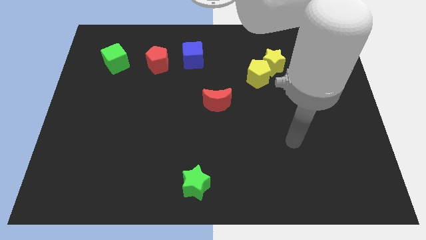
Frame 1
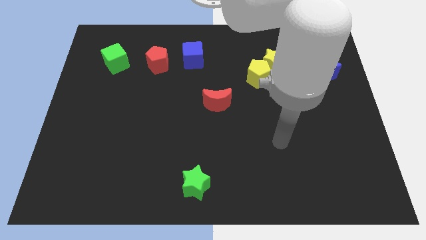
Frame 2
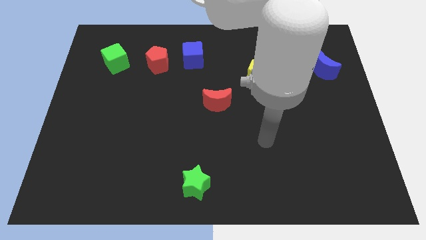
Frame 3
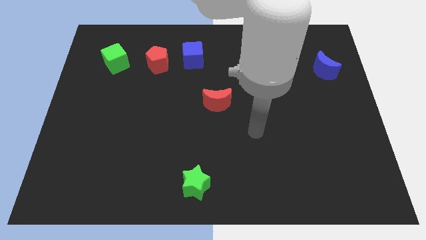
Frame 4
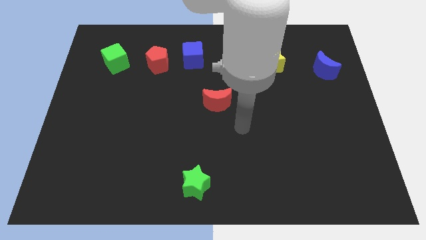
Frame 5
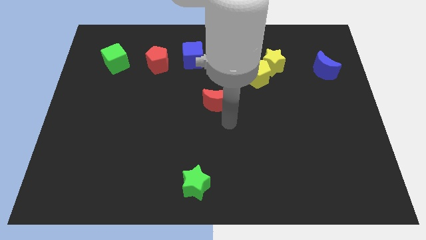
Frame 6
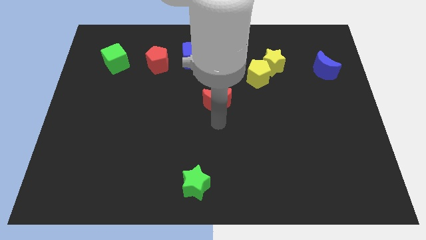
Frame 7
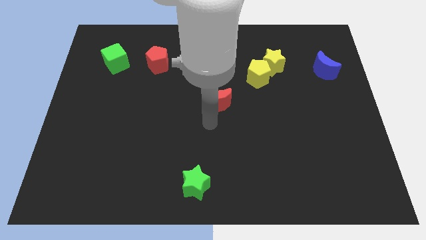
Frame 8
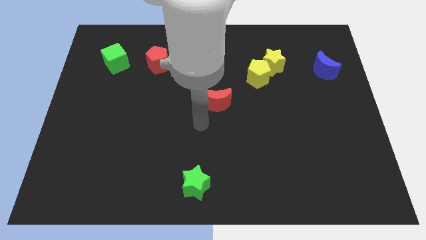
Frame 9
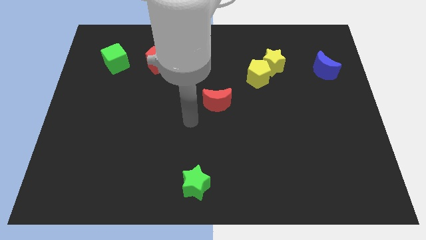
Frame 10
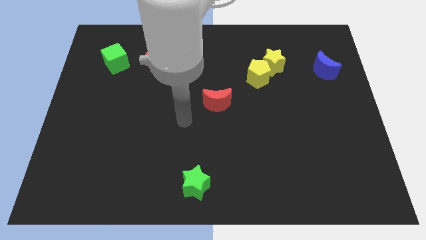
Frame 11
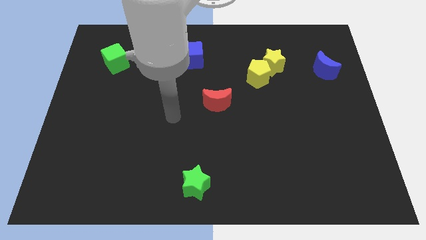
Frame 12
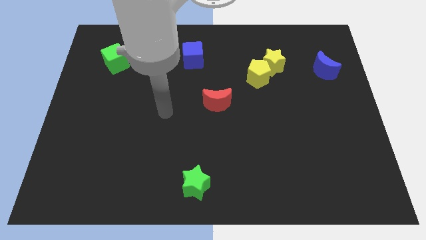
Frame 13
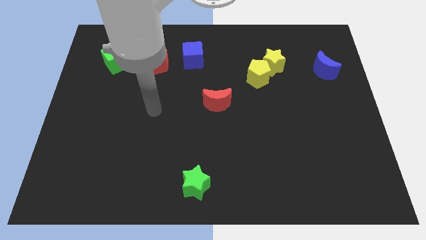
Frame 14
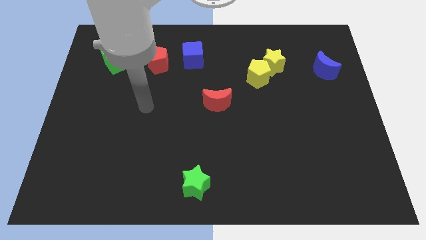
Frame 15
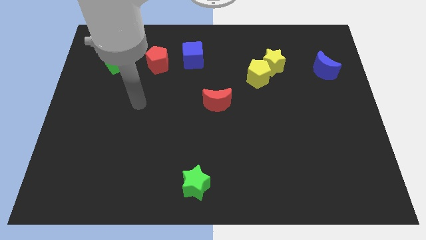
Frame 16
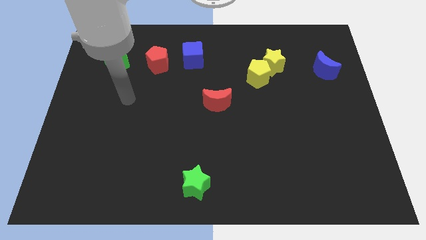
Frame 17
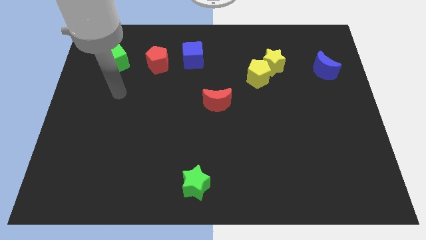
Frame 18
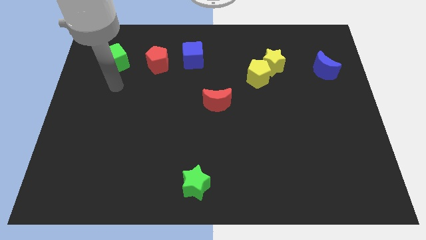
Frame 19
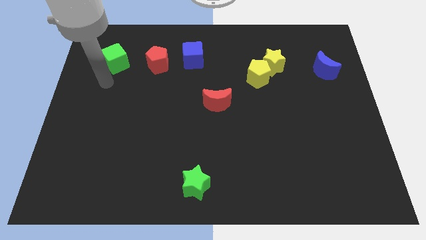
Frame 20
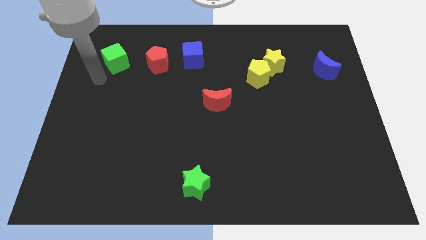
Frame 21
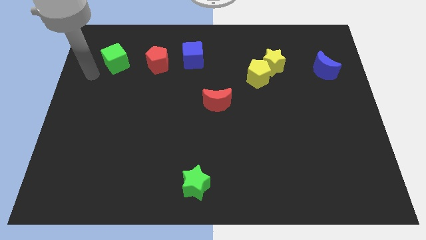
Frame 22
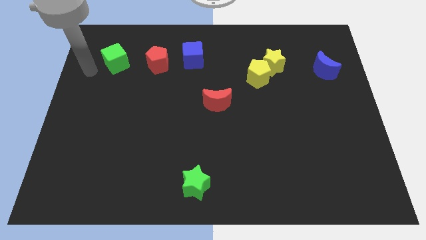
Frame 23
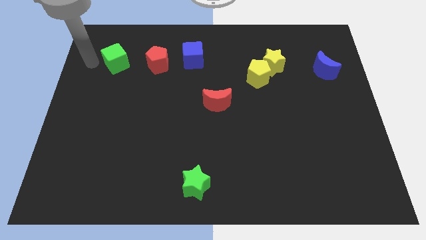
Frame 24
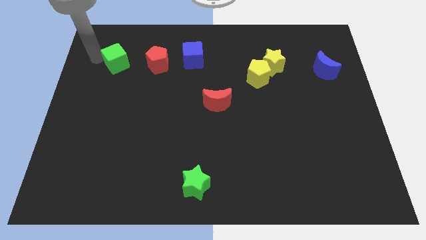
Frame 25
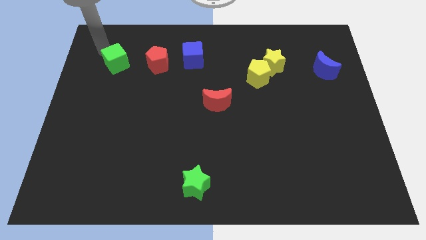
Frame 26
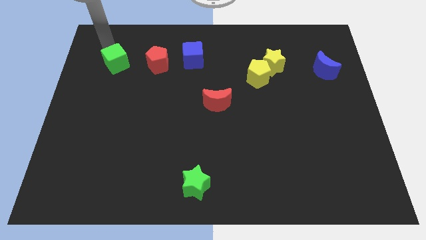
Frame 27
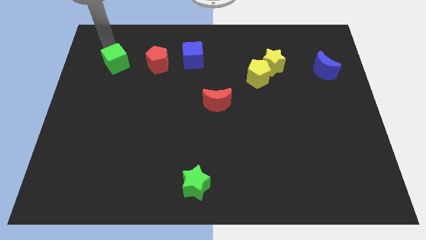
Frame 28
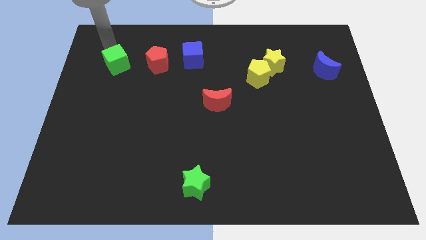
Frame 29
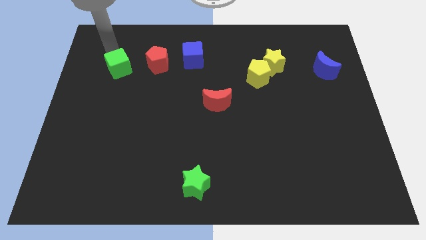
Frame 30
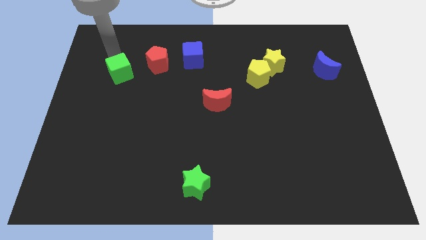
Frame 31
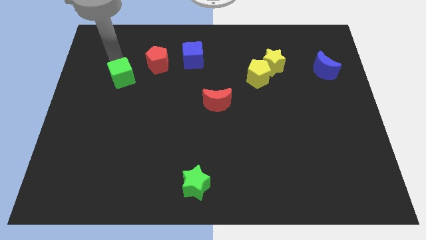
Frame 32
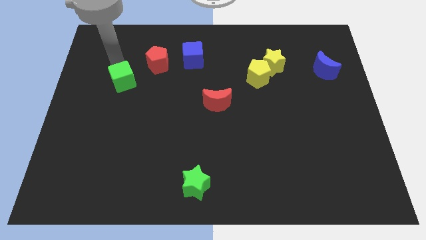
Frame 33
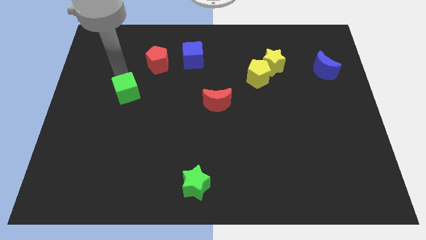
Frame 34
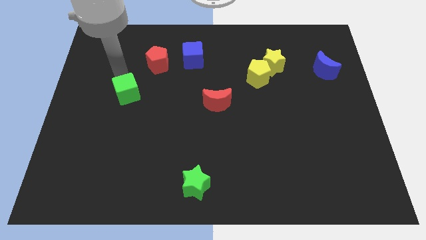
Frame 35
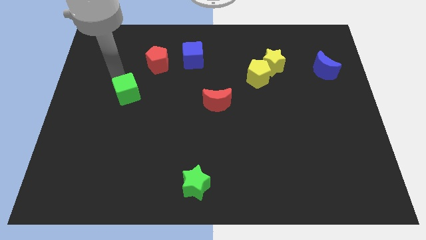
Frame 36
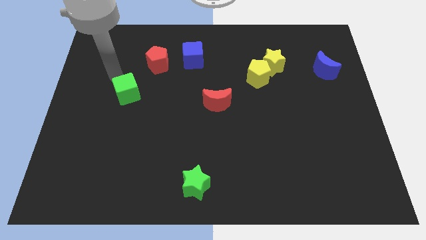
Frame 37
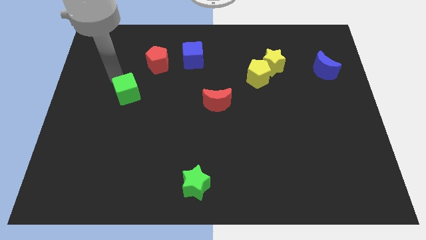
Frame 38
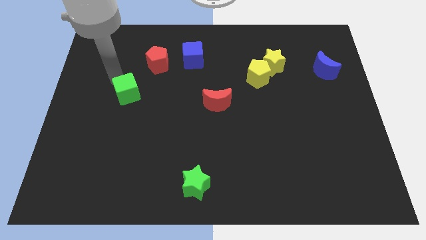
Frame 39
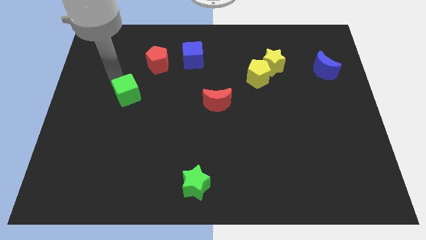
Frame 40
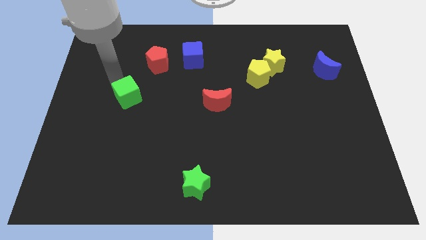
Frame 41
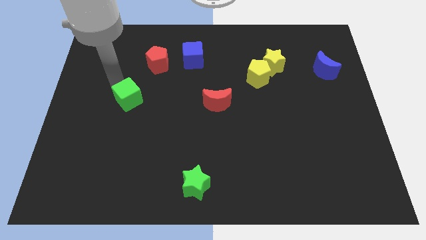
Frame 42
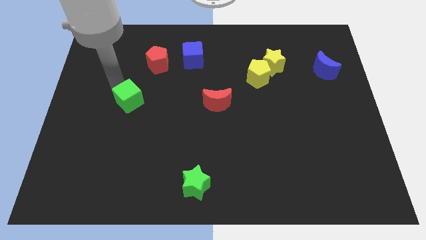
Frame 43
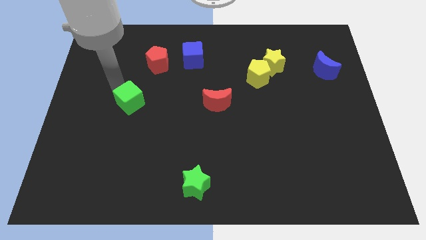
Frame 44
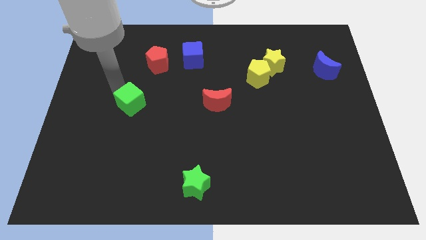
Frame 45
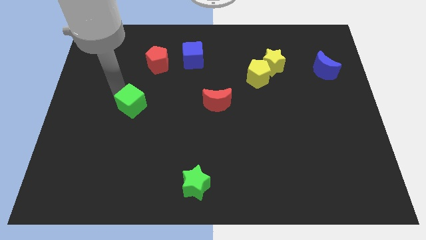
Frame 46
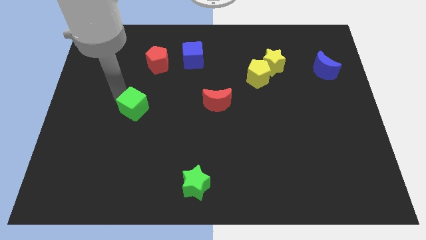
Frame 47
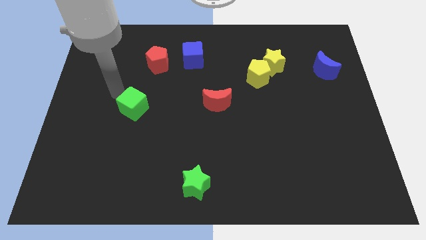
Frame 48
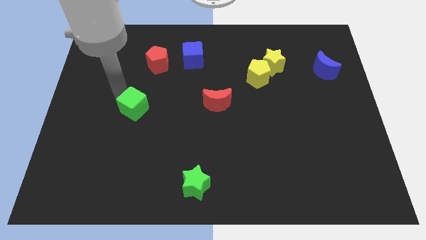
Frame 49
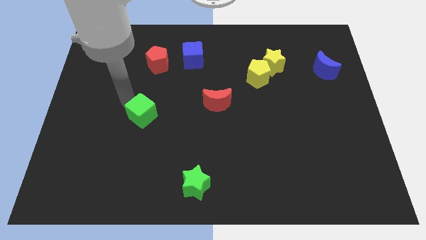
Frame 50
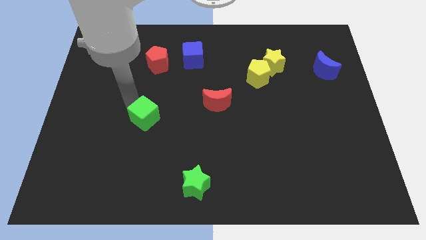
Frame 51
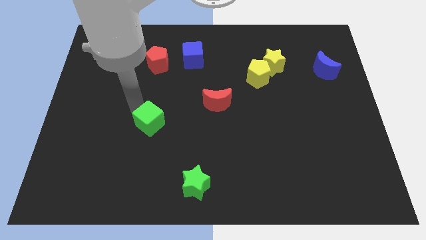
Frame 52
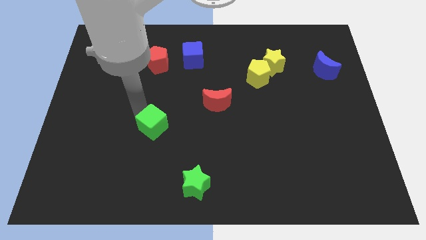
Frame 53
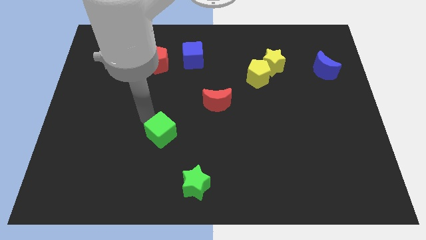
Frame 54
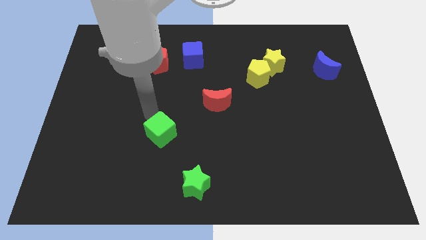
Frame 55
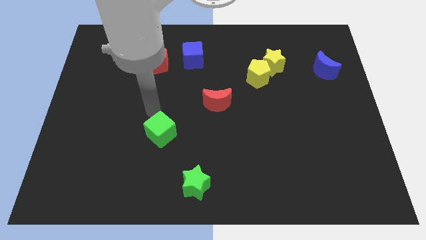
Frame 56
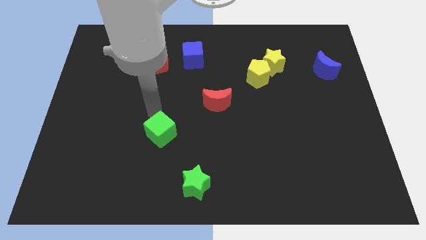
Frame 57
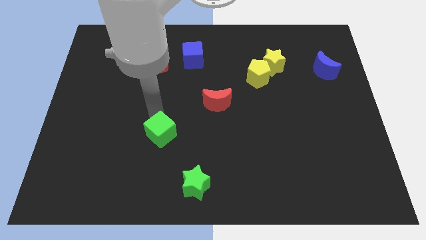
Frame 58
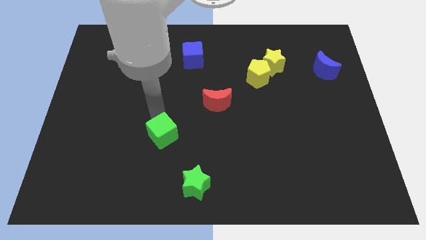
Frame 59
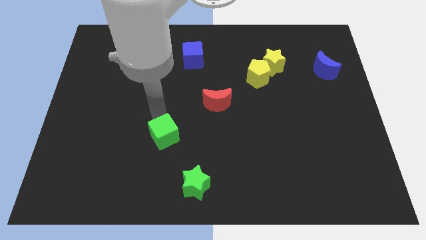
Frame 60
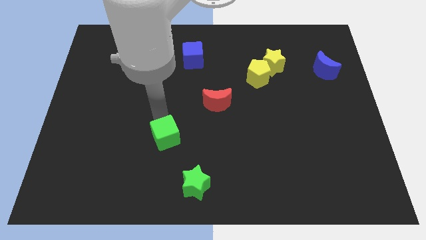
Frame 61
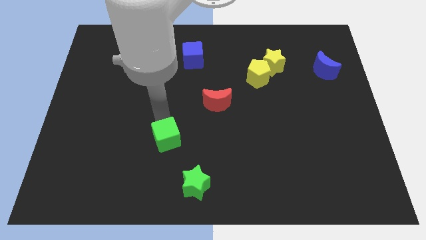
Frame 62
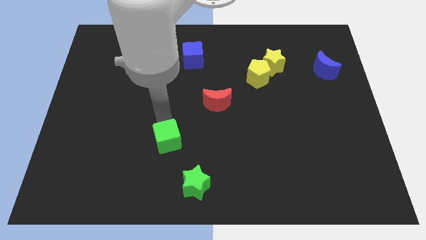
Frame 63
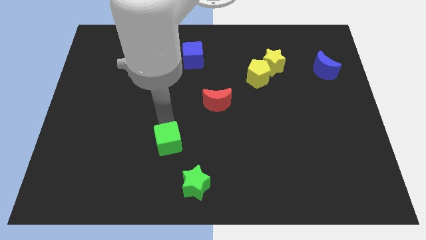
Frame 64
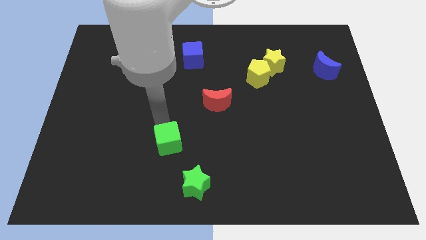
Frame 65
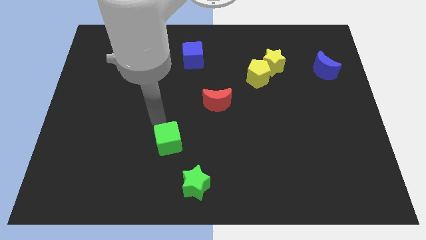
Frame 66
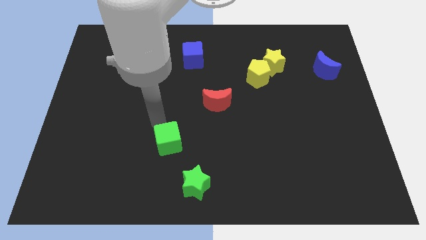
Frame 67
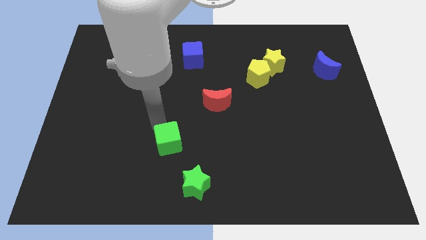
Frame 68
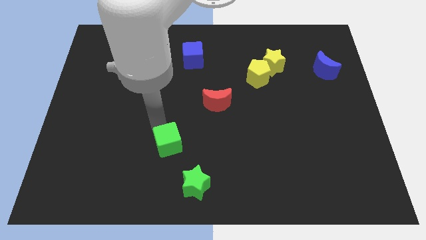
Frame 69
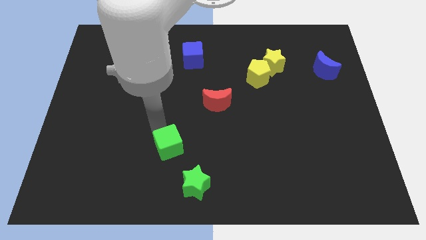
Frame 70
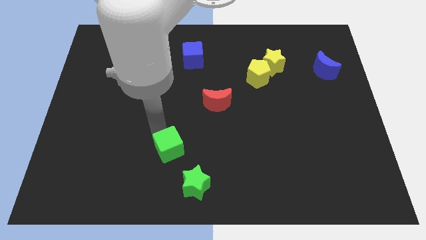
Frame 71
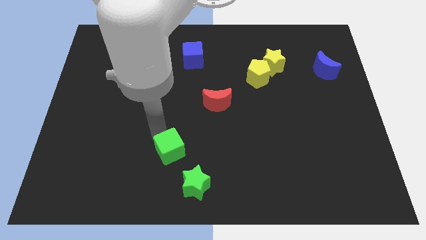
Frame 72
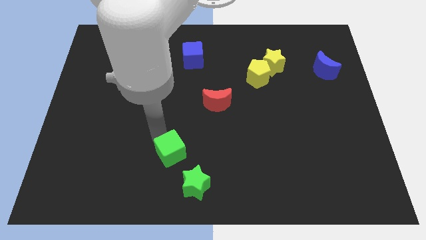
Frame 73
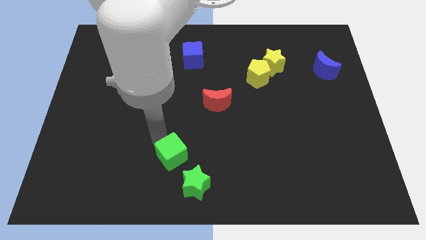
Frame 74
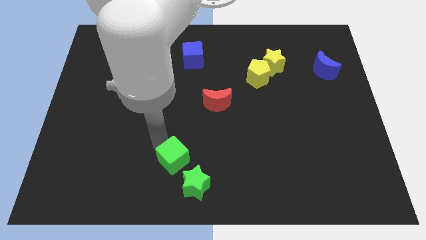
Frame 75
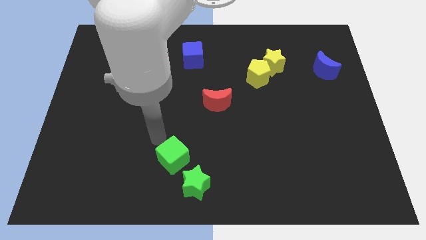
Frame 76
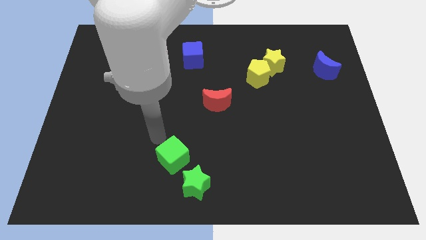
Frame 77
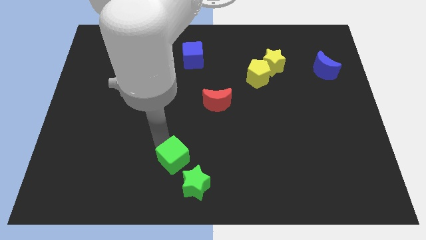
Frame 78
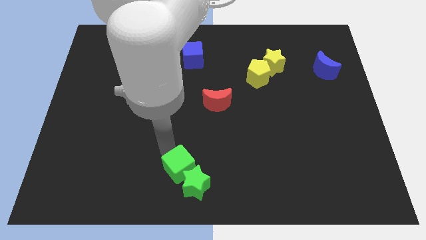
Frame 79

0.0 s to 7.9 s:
push the green cube close to the green star

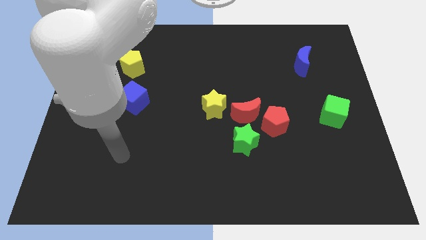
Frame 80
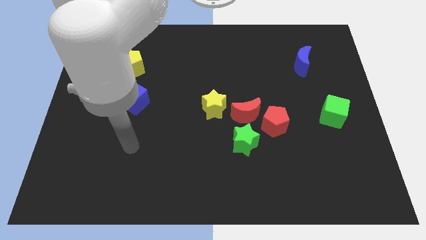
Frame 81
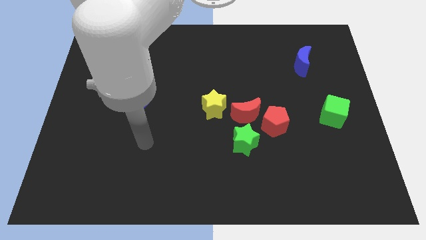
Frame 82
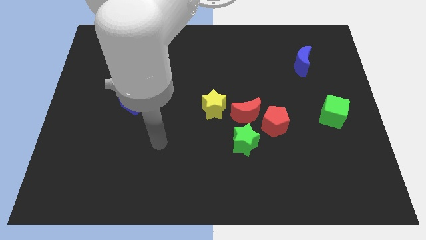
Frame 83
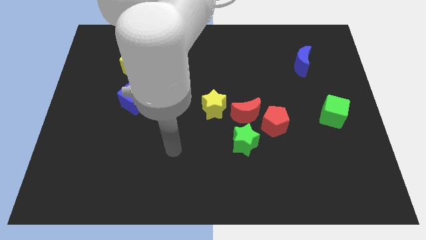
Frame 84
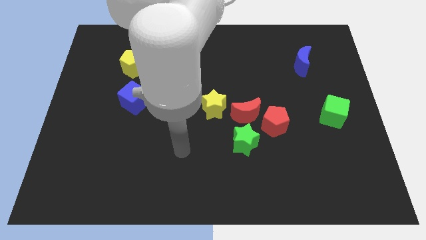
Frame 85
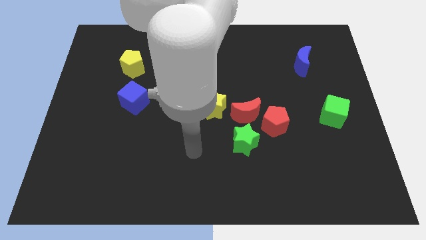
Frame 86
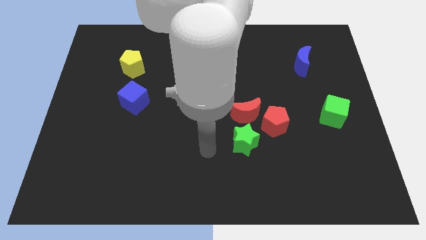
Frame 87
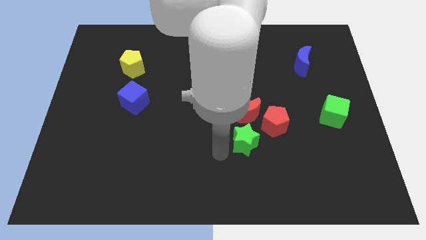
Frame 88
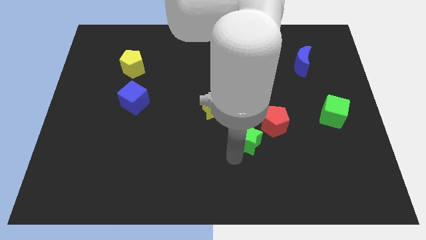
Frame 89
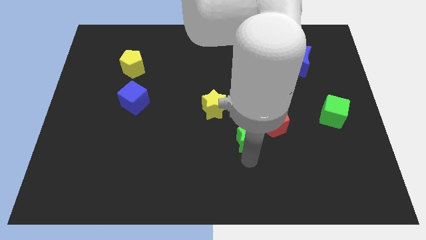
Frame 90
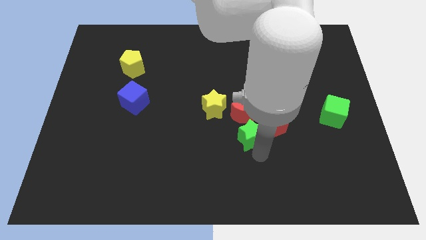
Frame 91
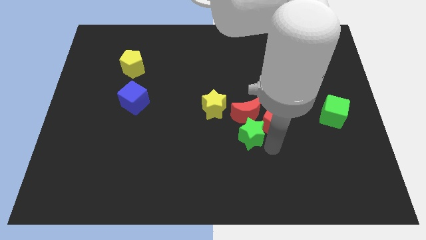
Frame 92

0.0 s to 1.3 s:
slide the red pentagon close to the green star
